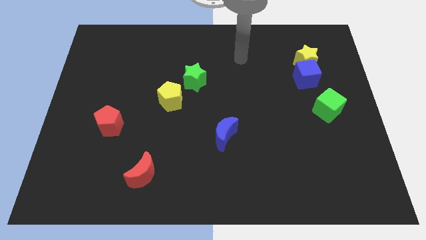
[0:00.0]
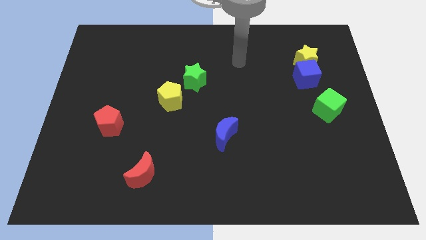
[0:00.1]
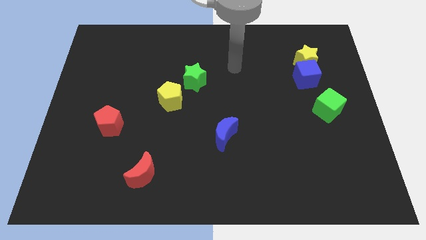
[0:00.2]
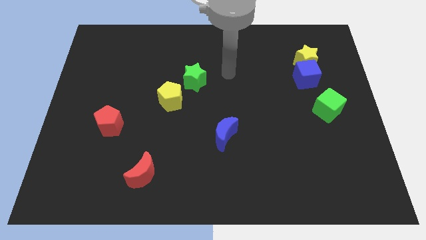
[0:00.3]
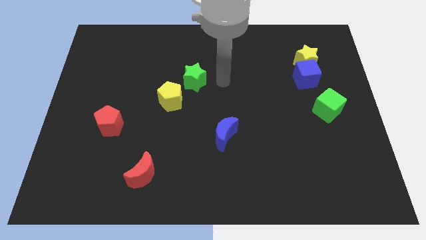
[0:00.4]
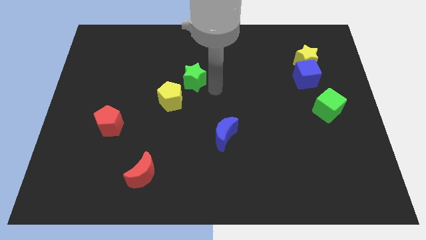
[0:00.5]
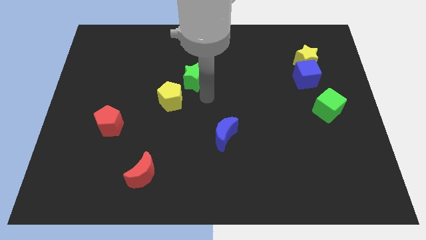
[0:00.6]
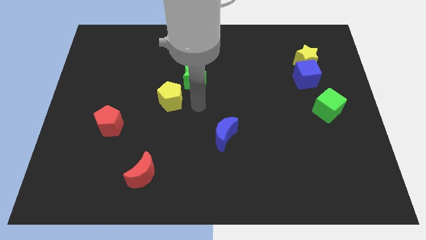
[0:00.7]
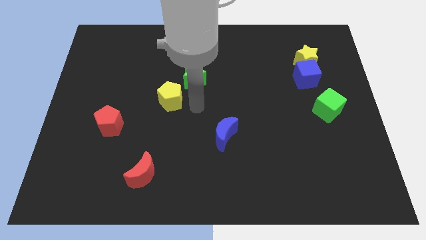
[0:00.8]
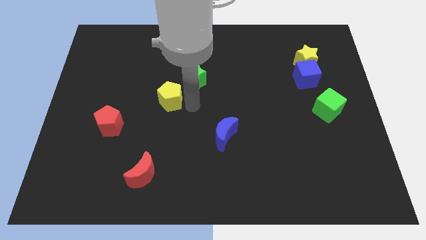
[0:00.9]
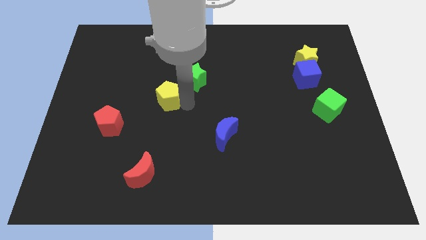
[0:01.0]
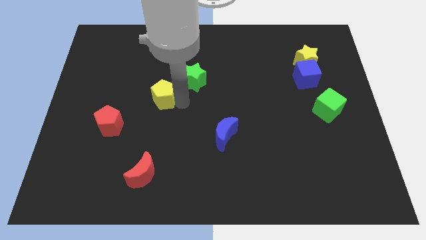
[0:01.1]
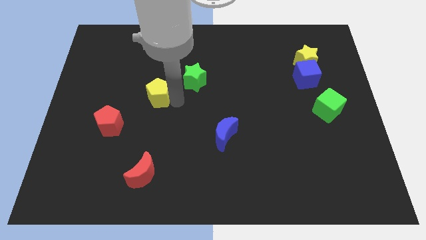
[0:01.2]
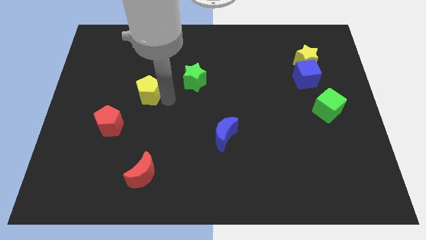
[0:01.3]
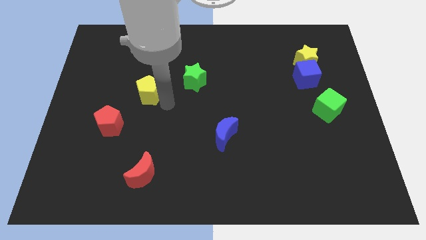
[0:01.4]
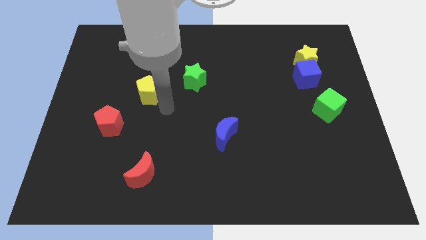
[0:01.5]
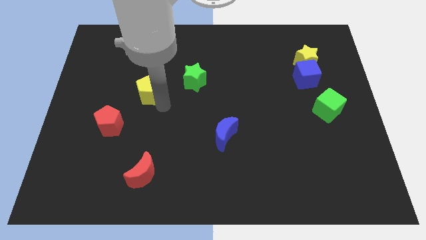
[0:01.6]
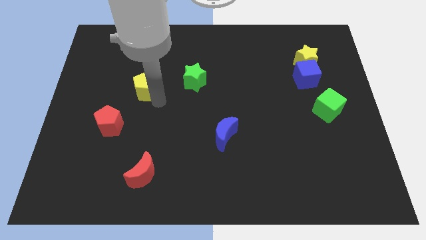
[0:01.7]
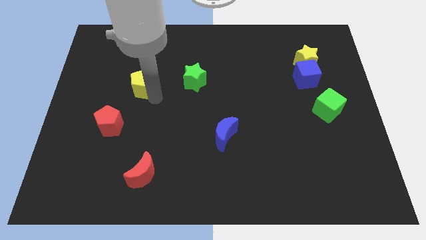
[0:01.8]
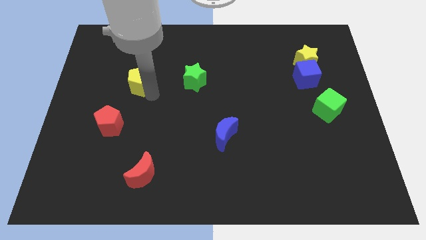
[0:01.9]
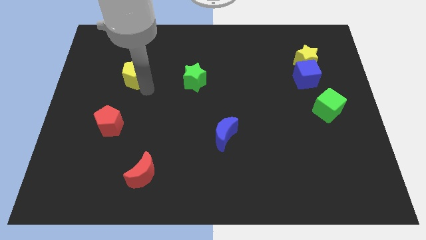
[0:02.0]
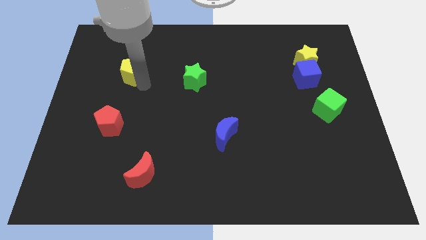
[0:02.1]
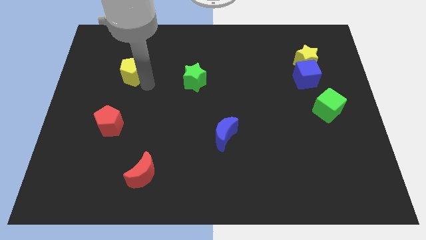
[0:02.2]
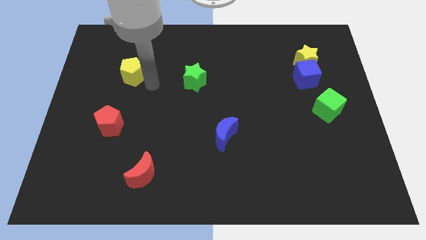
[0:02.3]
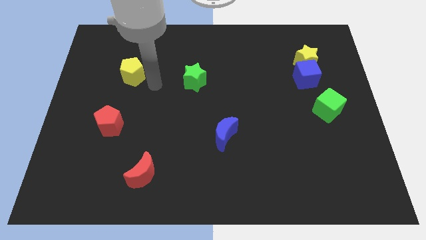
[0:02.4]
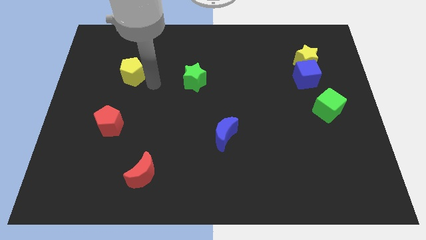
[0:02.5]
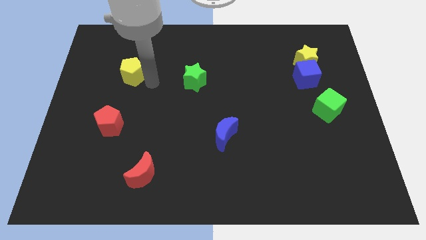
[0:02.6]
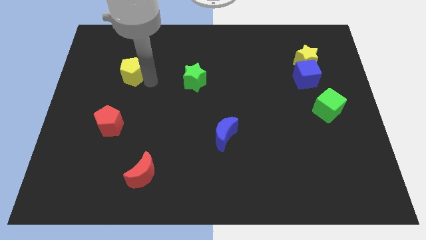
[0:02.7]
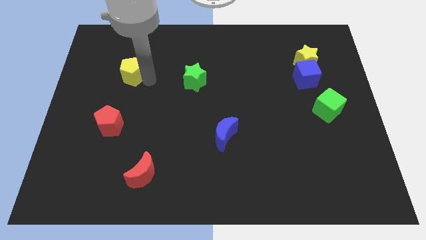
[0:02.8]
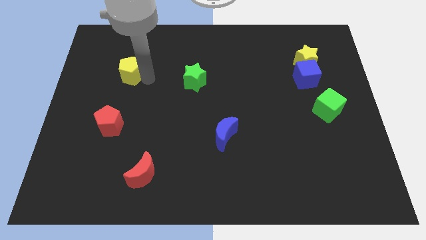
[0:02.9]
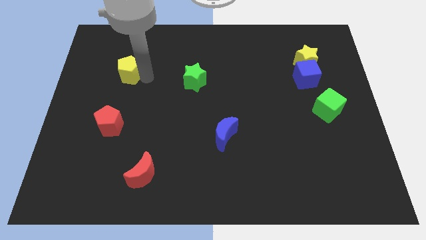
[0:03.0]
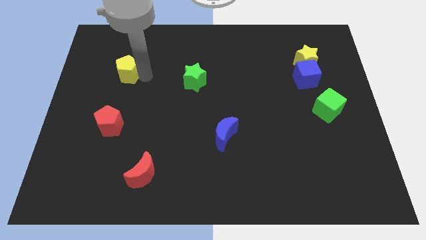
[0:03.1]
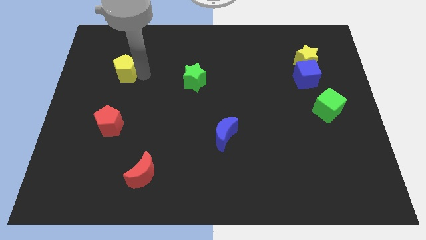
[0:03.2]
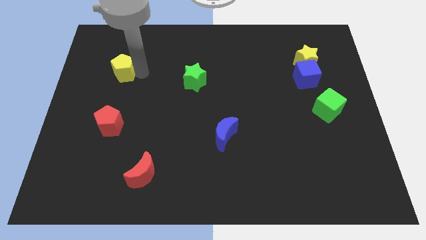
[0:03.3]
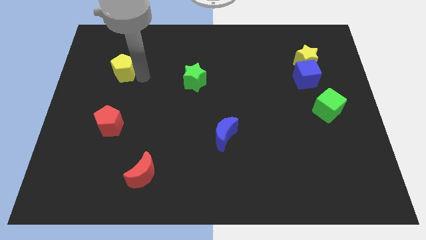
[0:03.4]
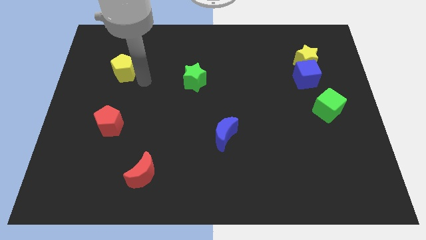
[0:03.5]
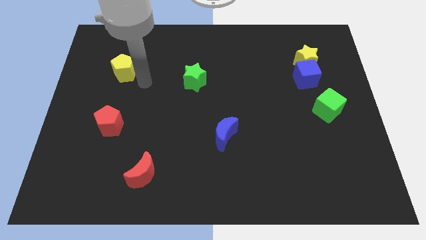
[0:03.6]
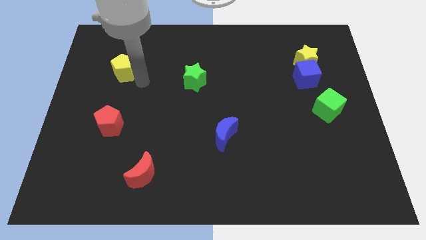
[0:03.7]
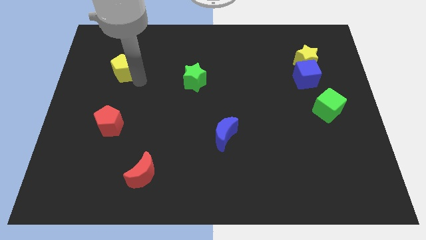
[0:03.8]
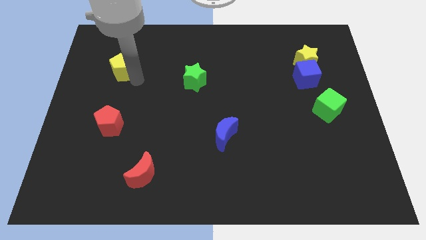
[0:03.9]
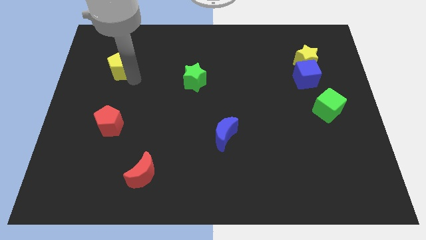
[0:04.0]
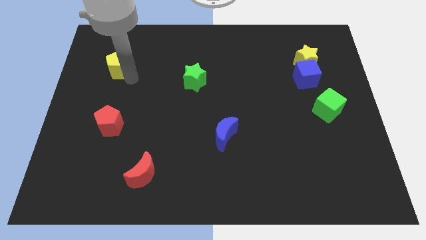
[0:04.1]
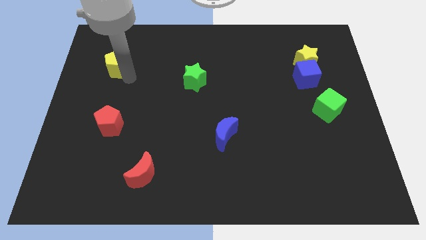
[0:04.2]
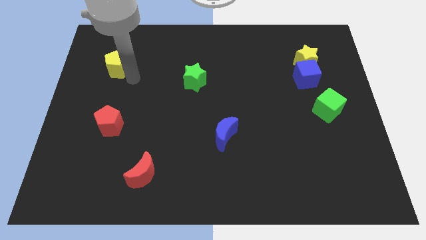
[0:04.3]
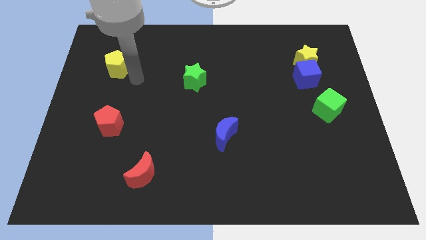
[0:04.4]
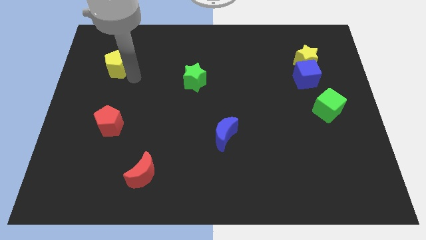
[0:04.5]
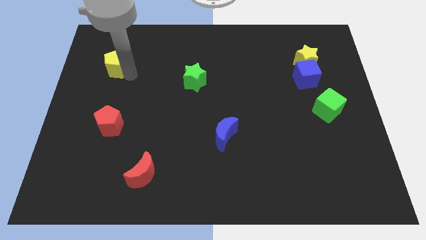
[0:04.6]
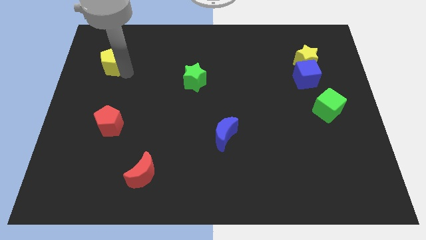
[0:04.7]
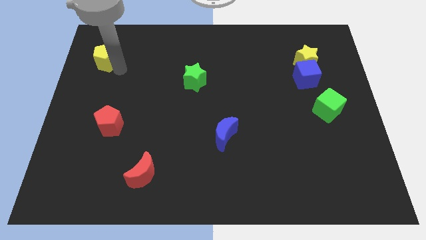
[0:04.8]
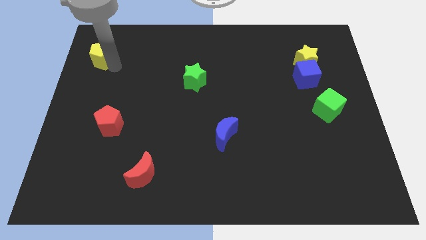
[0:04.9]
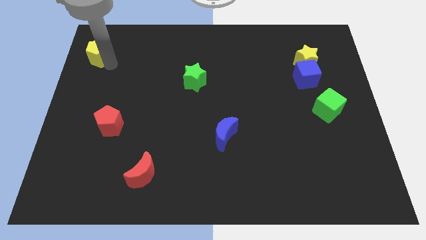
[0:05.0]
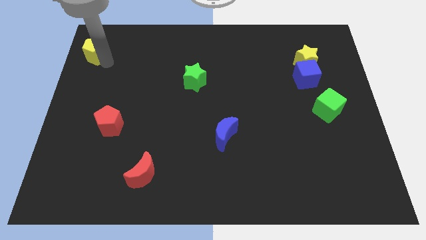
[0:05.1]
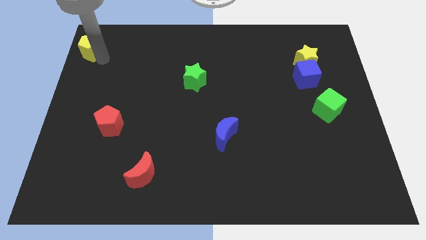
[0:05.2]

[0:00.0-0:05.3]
put the yellow pentagon to the top left of the board

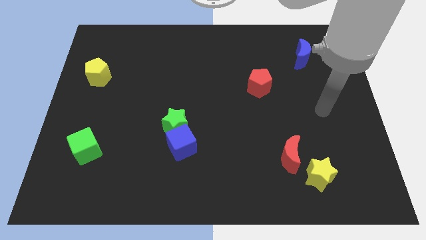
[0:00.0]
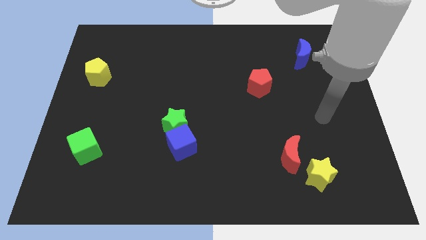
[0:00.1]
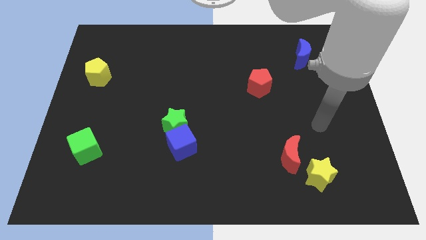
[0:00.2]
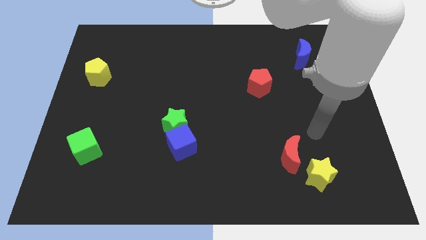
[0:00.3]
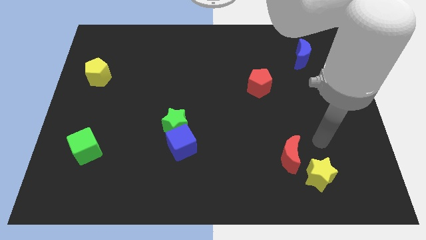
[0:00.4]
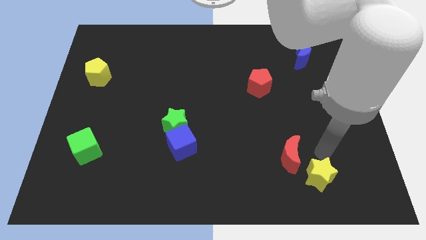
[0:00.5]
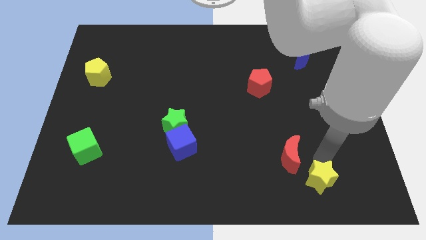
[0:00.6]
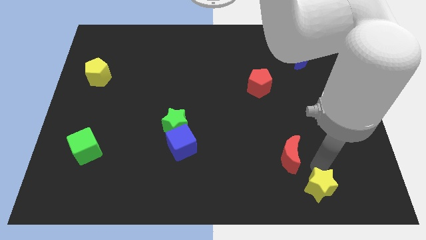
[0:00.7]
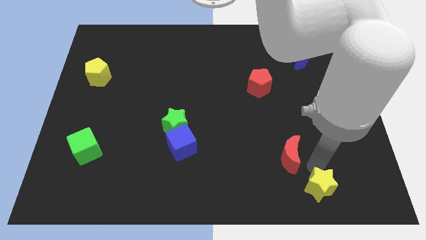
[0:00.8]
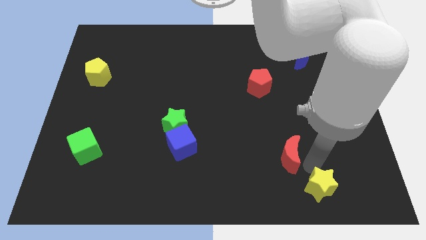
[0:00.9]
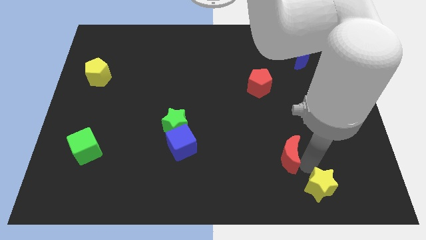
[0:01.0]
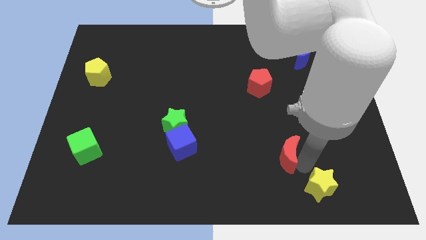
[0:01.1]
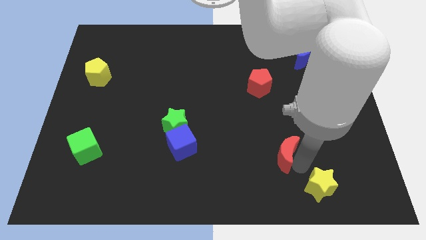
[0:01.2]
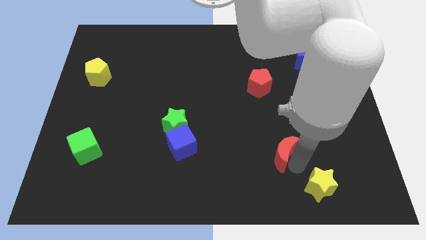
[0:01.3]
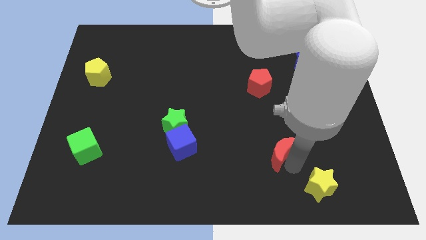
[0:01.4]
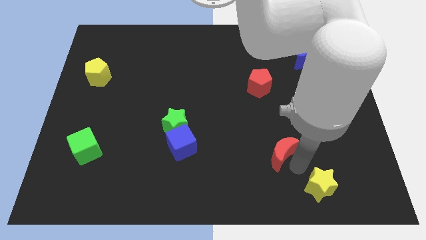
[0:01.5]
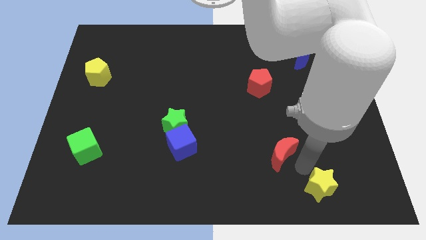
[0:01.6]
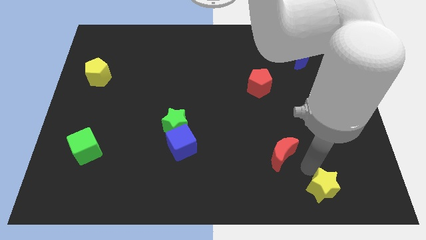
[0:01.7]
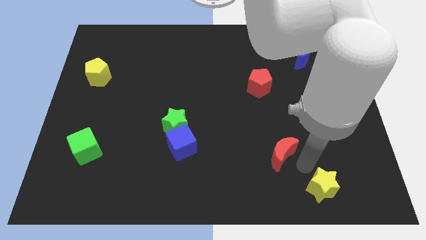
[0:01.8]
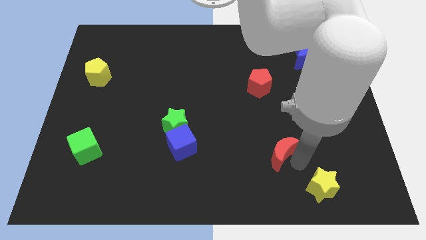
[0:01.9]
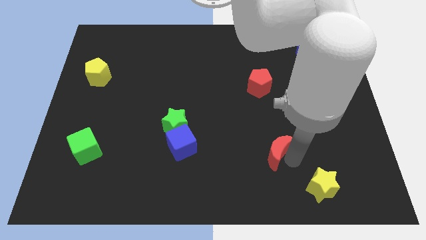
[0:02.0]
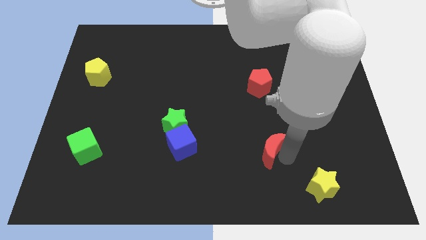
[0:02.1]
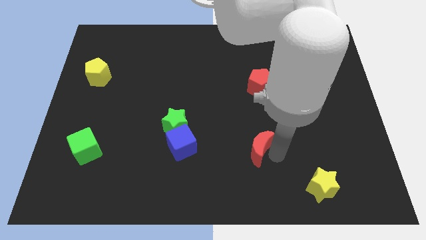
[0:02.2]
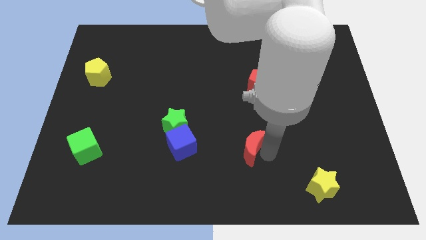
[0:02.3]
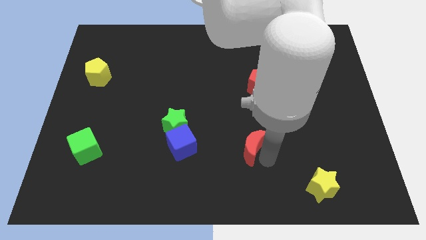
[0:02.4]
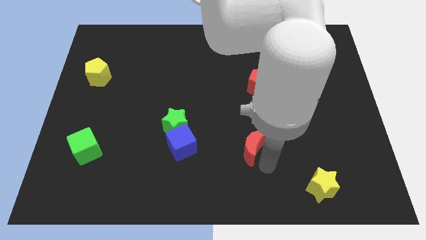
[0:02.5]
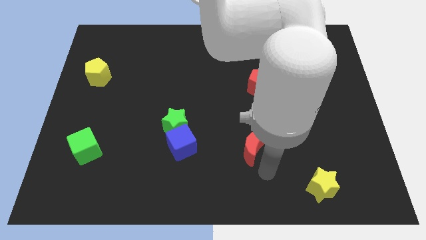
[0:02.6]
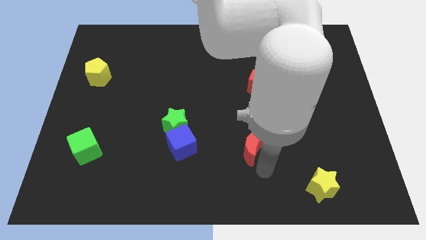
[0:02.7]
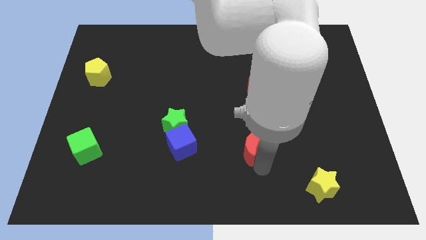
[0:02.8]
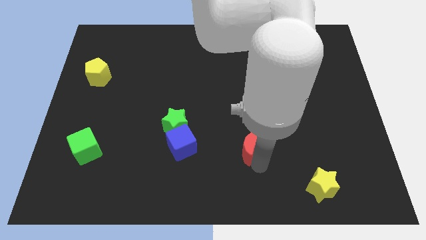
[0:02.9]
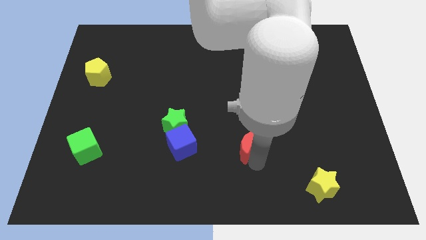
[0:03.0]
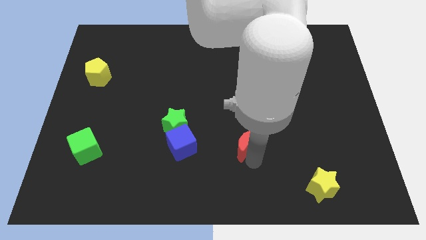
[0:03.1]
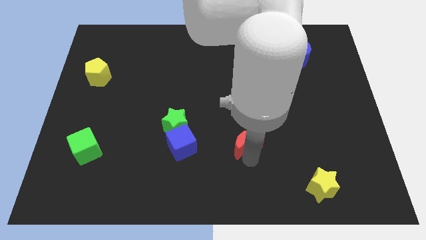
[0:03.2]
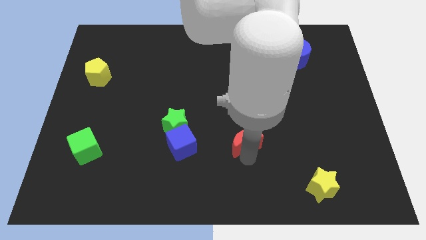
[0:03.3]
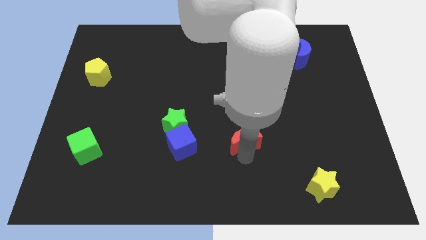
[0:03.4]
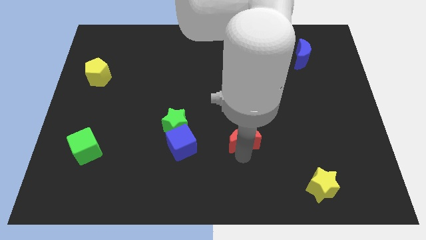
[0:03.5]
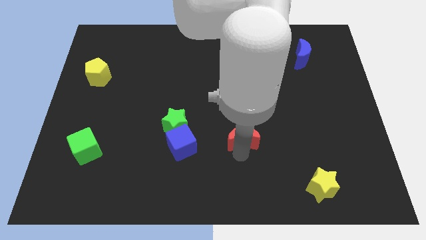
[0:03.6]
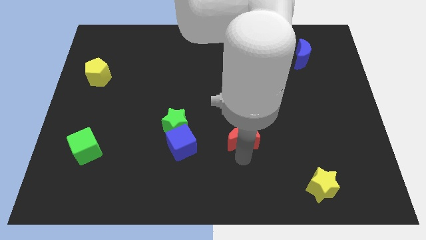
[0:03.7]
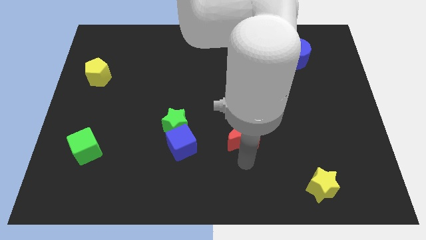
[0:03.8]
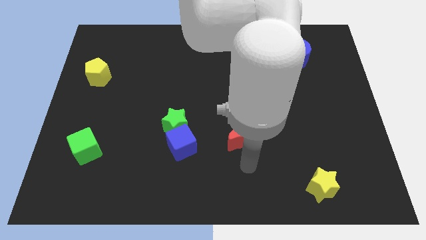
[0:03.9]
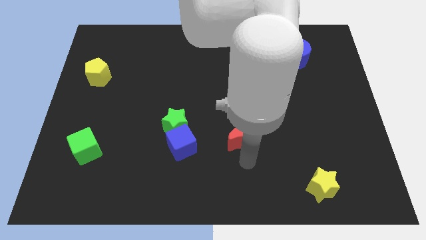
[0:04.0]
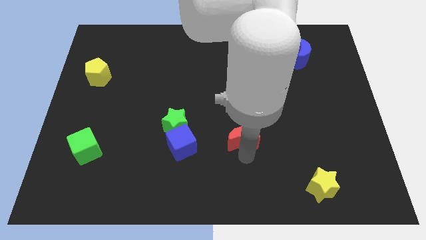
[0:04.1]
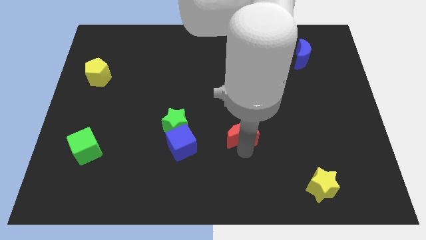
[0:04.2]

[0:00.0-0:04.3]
push the red moon to the middle of the board
